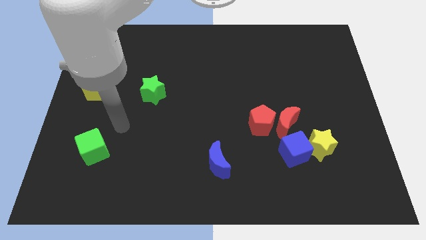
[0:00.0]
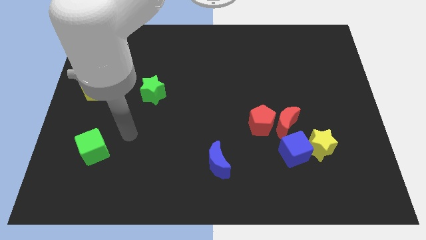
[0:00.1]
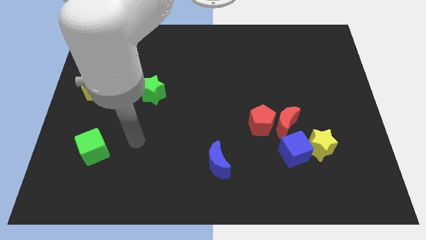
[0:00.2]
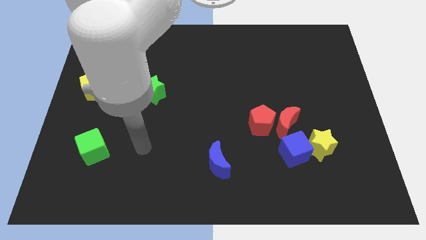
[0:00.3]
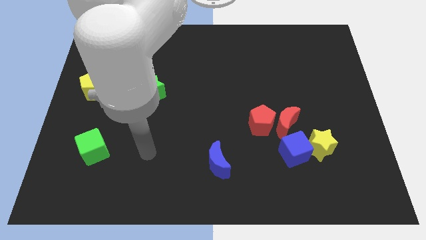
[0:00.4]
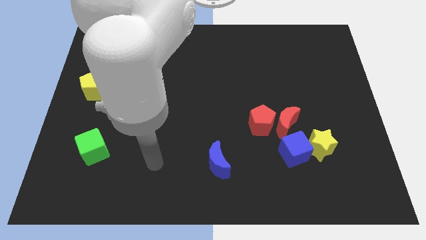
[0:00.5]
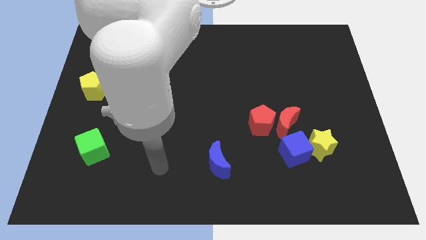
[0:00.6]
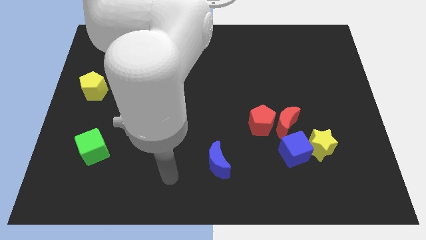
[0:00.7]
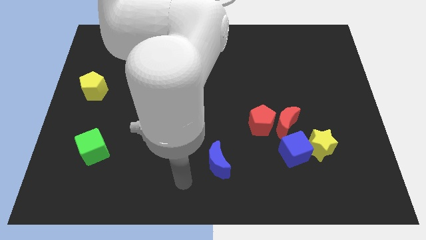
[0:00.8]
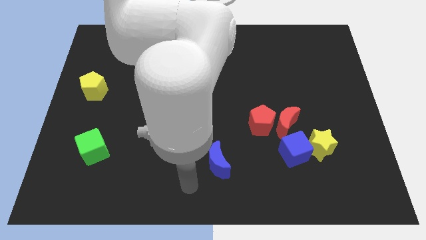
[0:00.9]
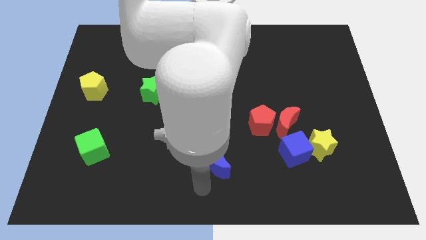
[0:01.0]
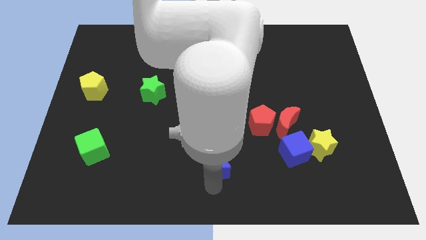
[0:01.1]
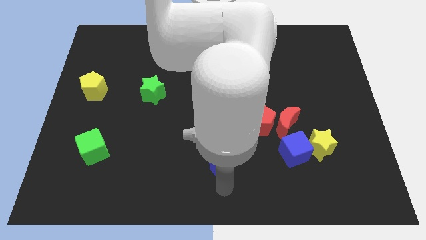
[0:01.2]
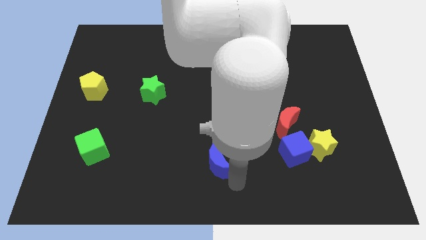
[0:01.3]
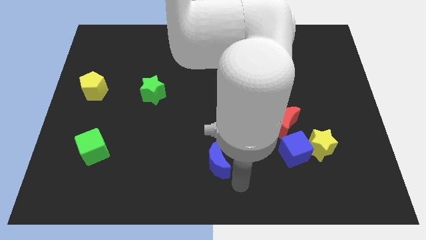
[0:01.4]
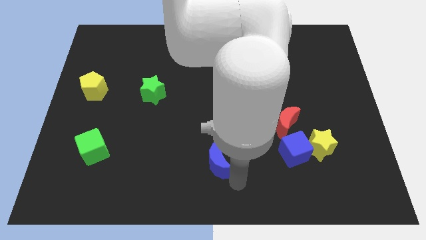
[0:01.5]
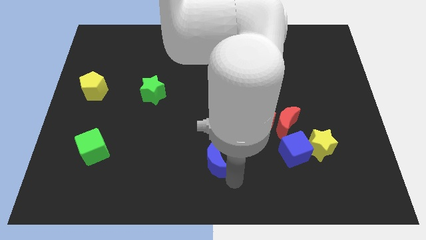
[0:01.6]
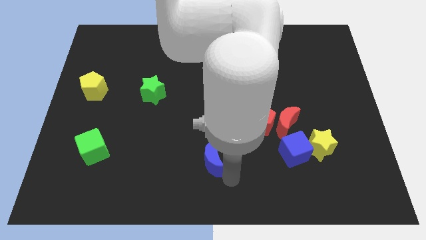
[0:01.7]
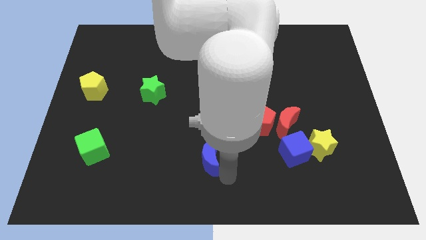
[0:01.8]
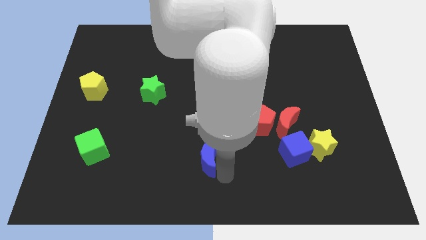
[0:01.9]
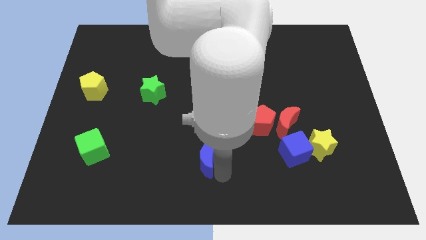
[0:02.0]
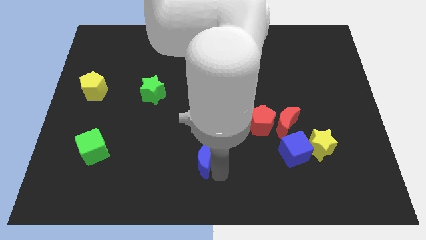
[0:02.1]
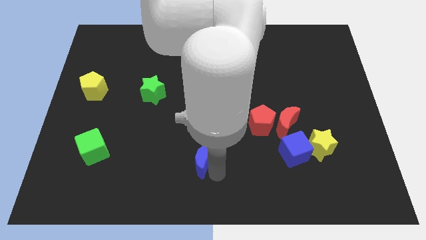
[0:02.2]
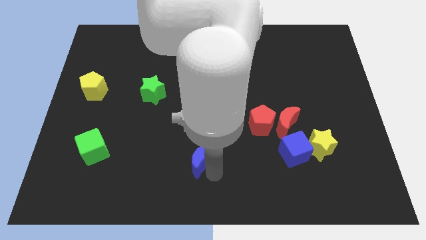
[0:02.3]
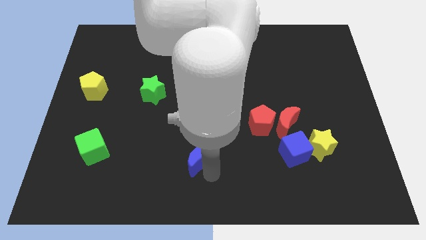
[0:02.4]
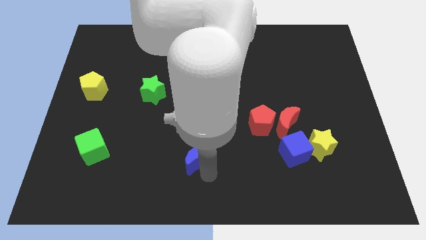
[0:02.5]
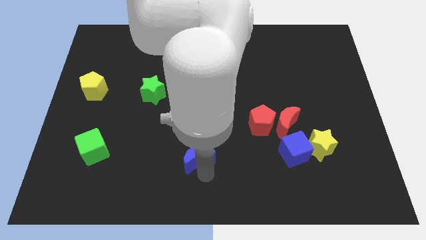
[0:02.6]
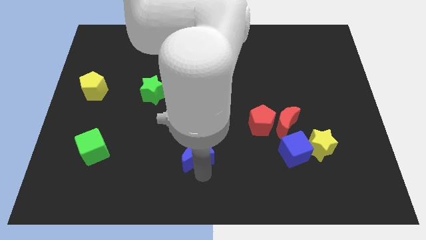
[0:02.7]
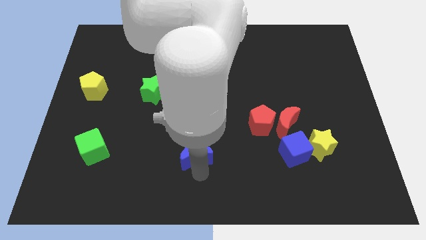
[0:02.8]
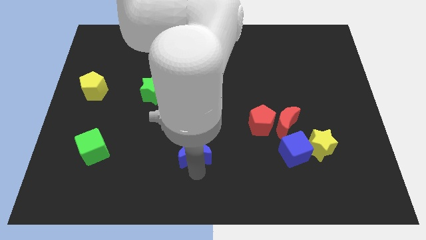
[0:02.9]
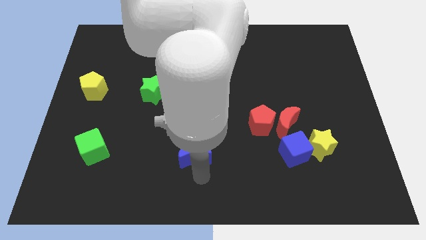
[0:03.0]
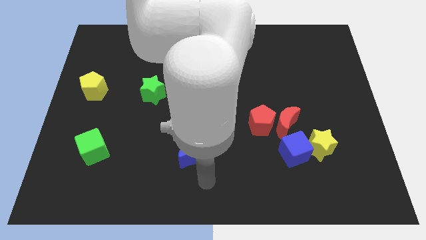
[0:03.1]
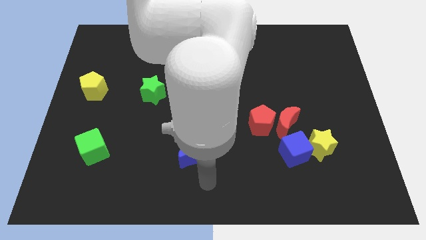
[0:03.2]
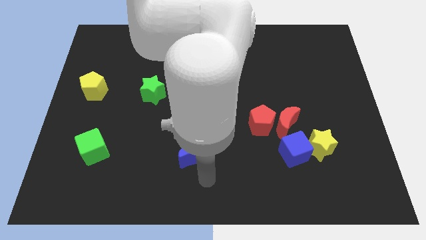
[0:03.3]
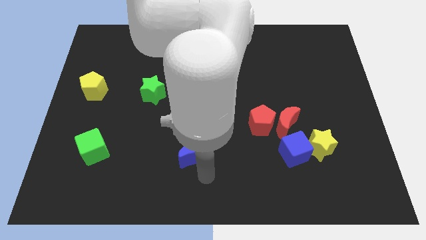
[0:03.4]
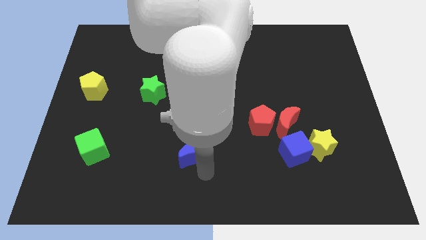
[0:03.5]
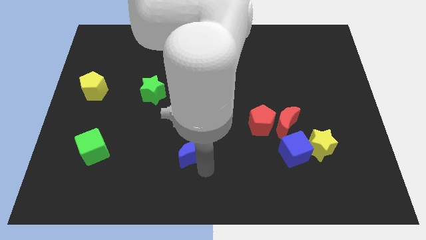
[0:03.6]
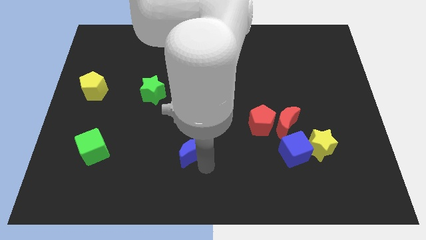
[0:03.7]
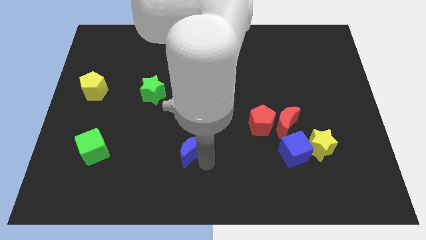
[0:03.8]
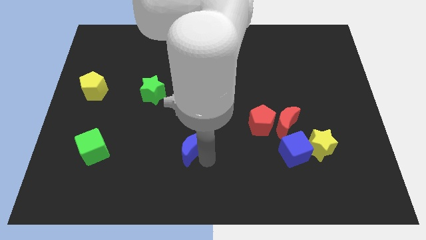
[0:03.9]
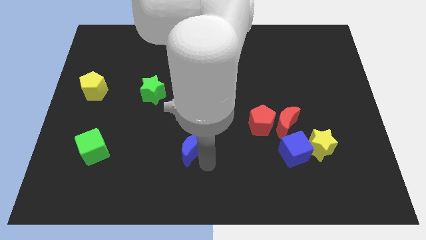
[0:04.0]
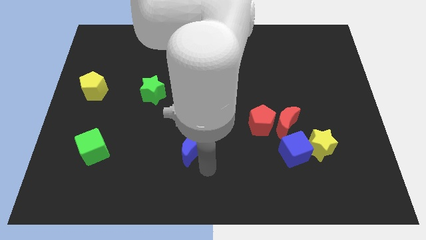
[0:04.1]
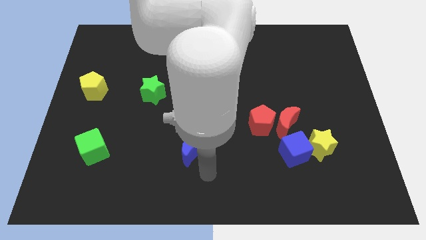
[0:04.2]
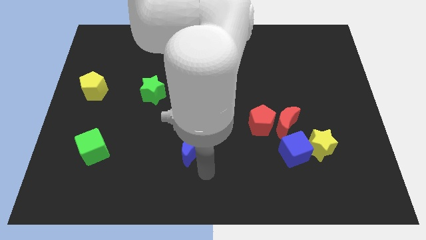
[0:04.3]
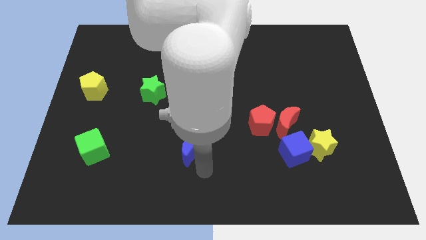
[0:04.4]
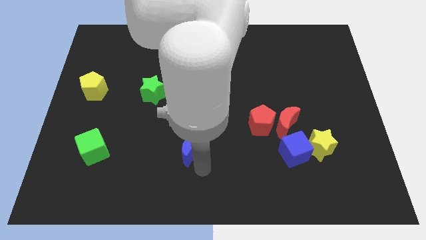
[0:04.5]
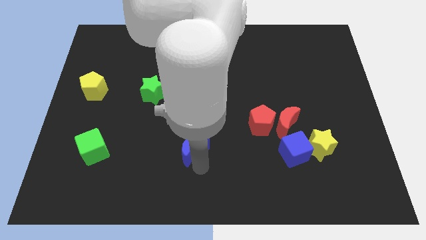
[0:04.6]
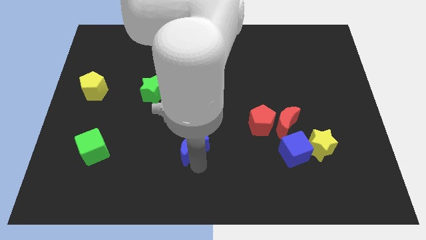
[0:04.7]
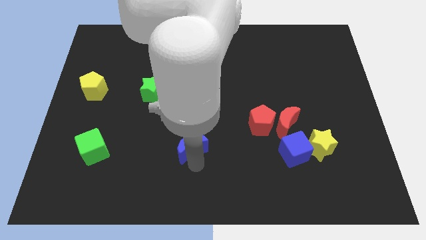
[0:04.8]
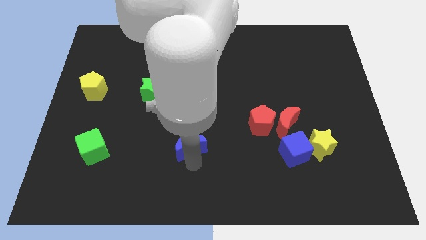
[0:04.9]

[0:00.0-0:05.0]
slightly slide the blue moon upwards and then left

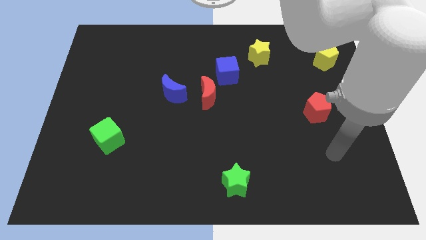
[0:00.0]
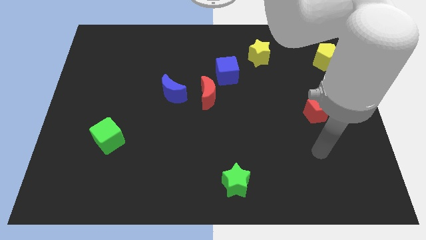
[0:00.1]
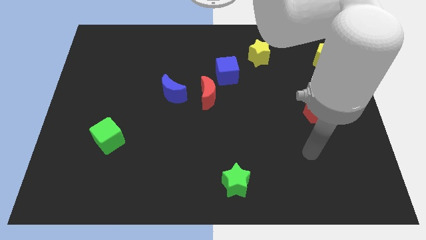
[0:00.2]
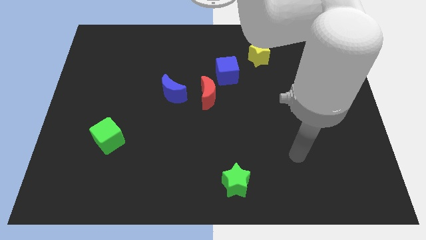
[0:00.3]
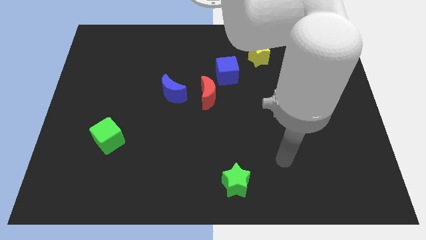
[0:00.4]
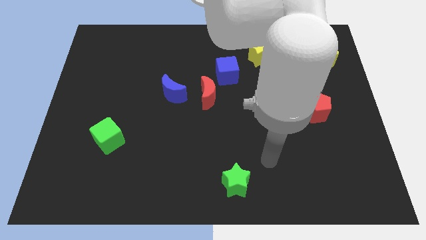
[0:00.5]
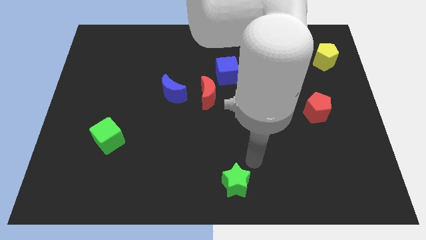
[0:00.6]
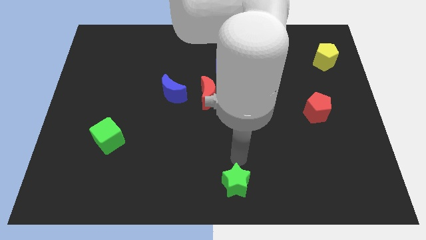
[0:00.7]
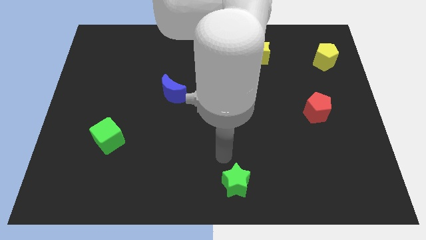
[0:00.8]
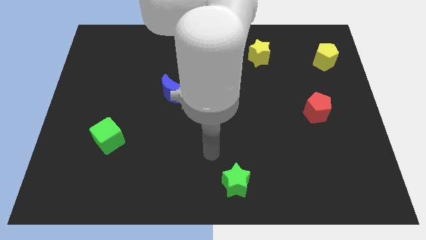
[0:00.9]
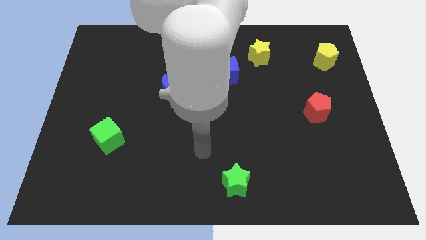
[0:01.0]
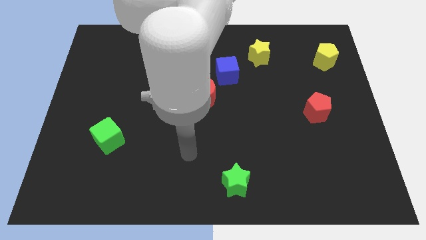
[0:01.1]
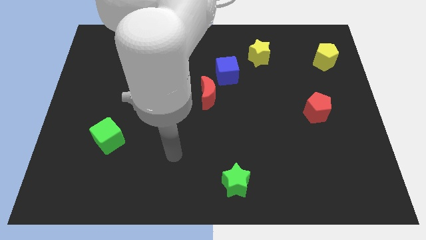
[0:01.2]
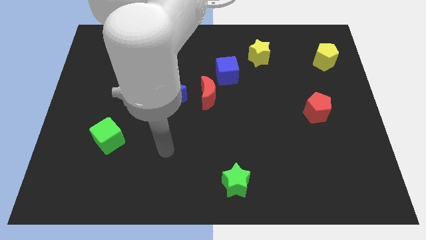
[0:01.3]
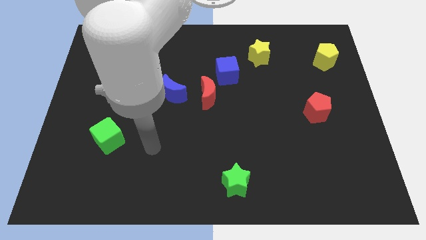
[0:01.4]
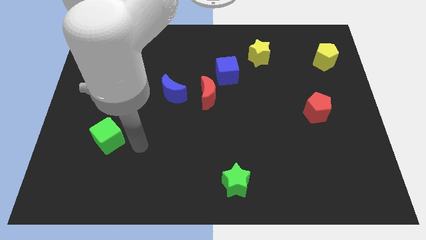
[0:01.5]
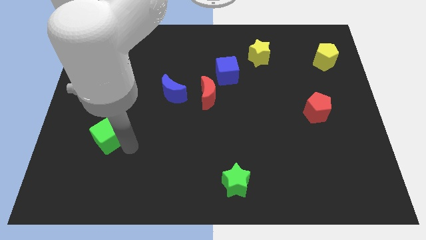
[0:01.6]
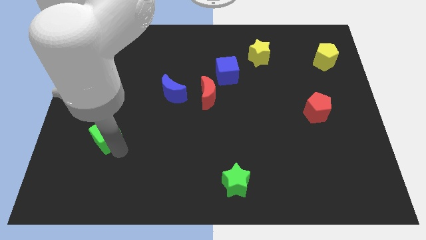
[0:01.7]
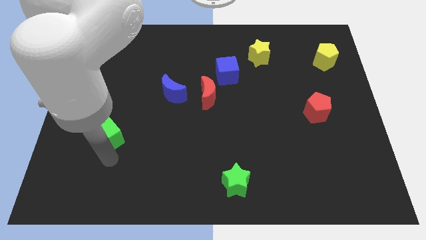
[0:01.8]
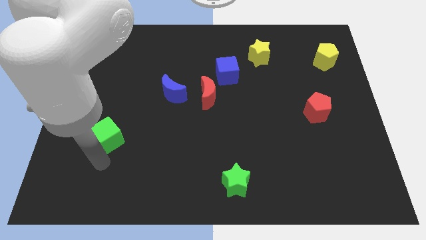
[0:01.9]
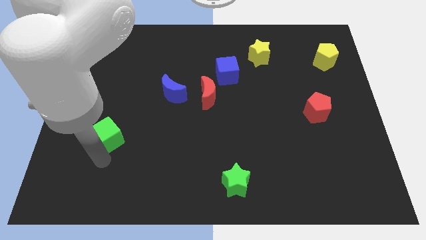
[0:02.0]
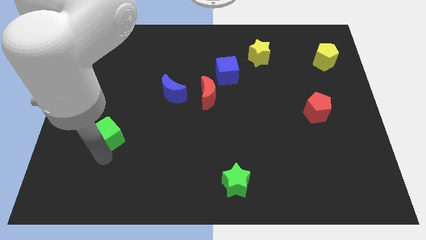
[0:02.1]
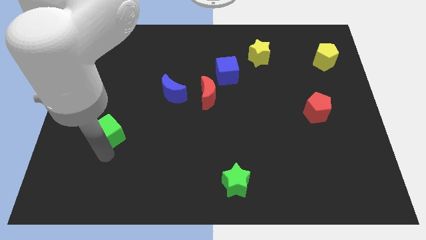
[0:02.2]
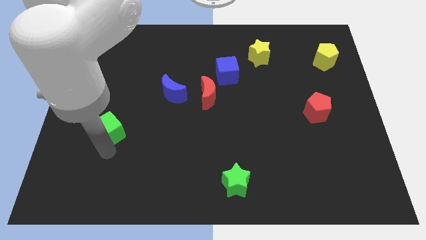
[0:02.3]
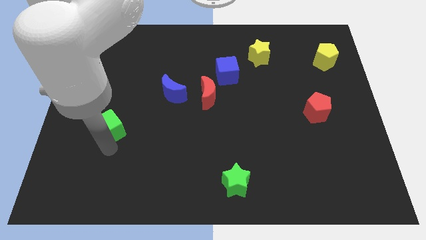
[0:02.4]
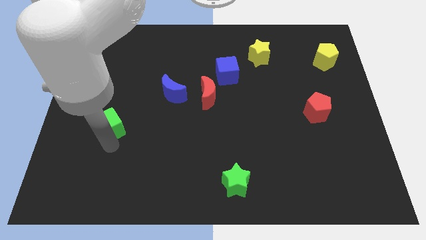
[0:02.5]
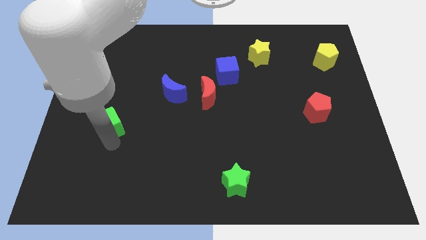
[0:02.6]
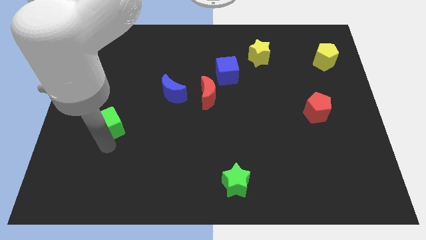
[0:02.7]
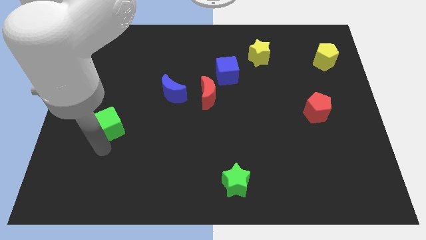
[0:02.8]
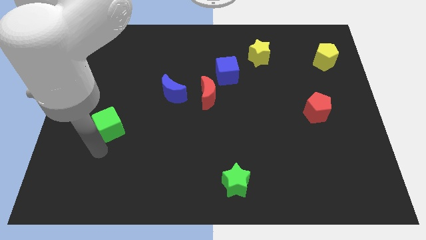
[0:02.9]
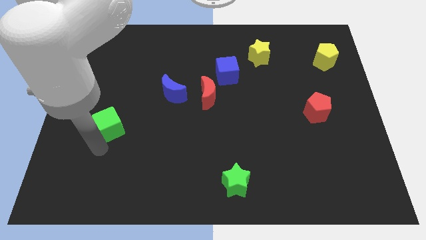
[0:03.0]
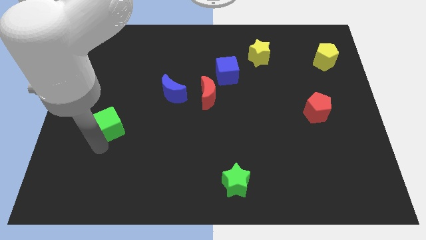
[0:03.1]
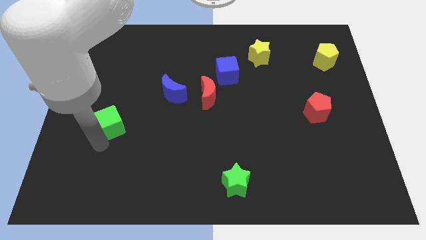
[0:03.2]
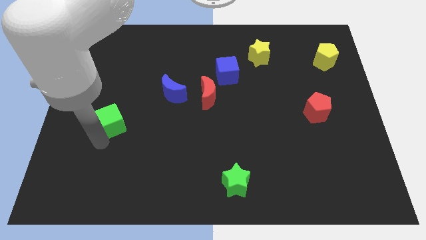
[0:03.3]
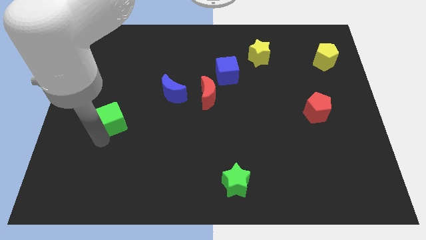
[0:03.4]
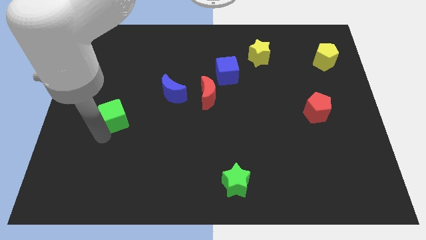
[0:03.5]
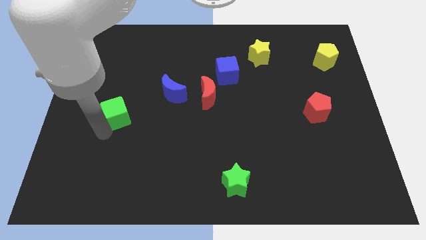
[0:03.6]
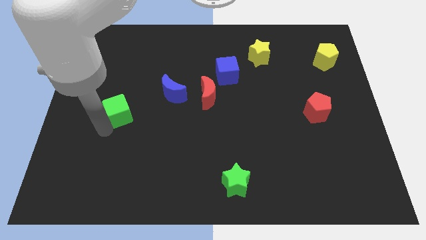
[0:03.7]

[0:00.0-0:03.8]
move the green cube upwards a little bit
